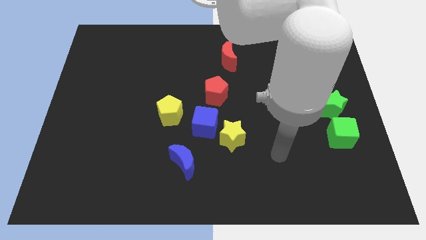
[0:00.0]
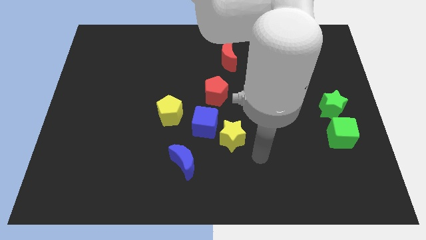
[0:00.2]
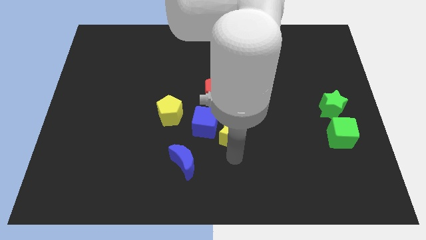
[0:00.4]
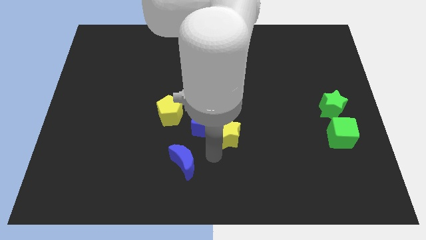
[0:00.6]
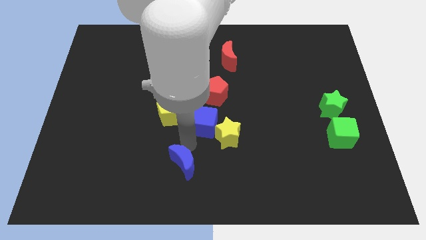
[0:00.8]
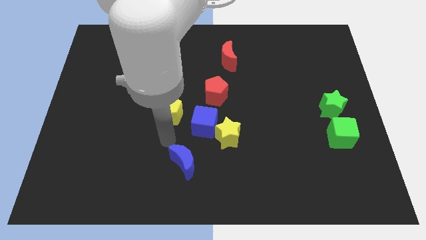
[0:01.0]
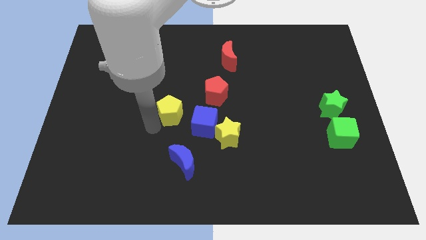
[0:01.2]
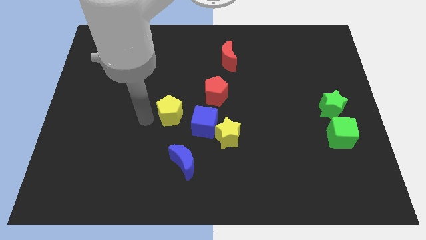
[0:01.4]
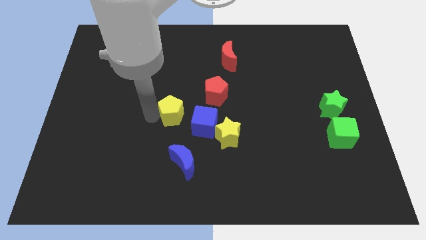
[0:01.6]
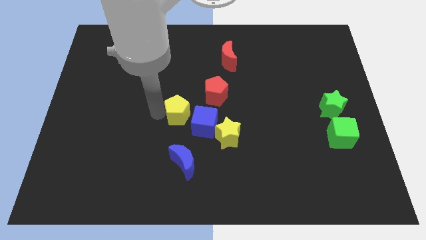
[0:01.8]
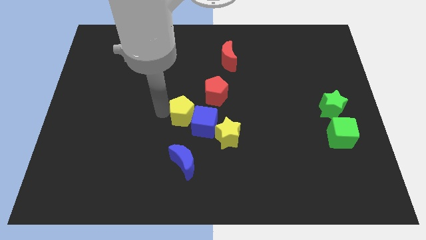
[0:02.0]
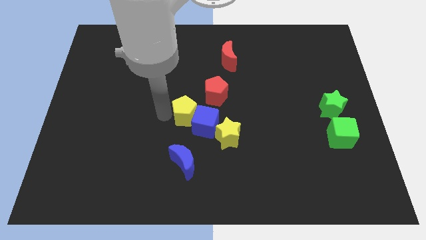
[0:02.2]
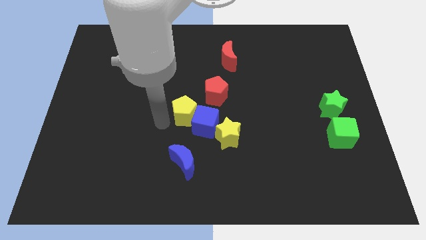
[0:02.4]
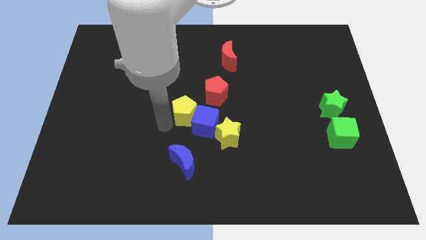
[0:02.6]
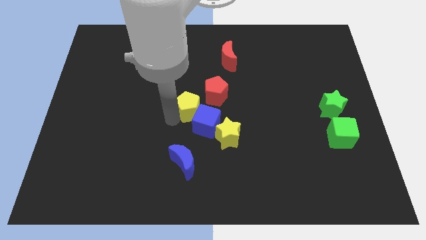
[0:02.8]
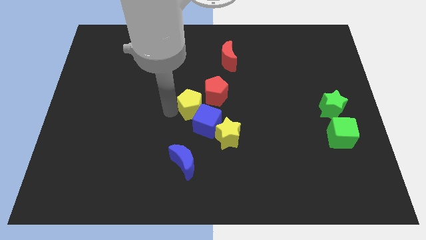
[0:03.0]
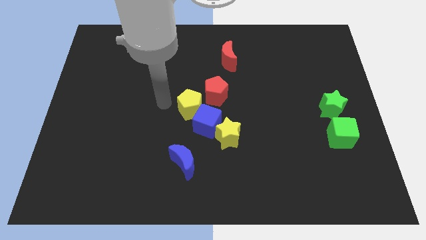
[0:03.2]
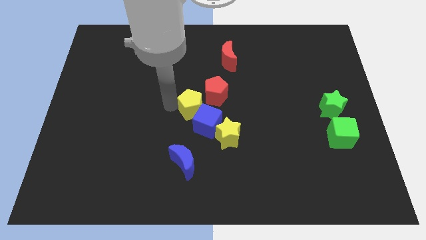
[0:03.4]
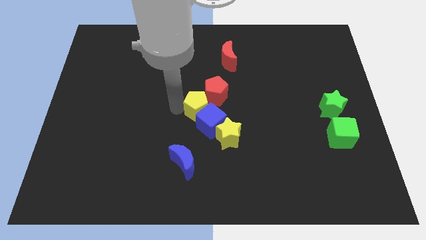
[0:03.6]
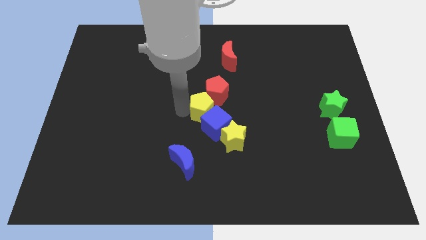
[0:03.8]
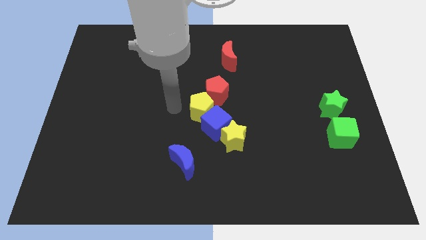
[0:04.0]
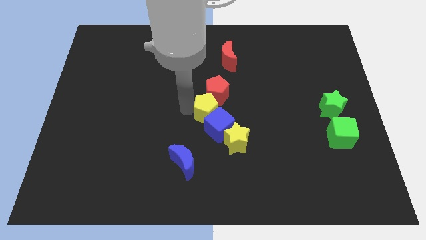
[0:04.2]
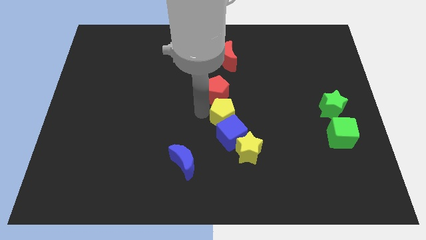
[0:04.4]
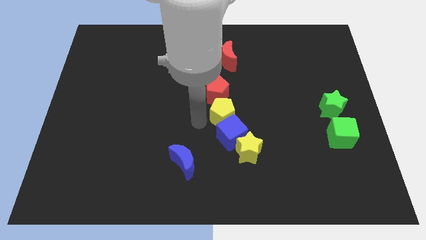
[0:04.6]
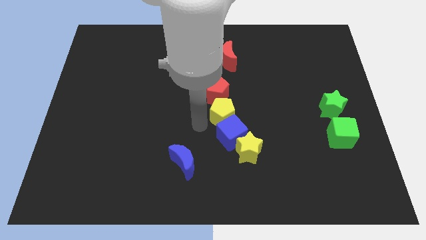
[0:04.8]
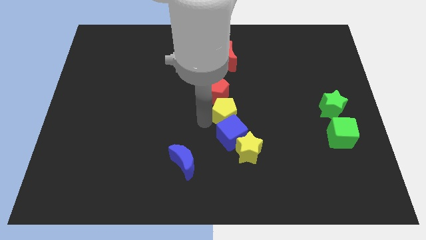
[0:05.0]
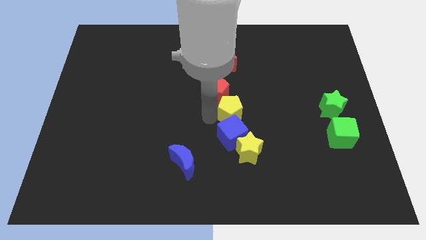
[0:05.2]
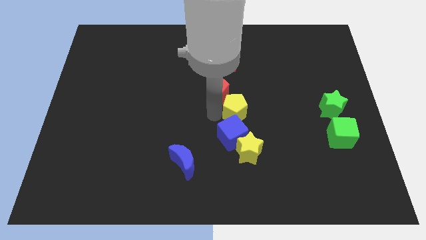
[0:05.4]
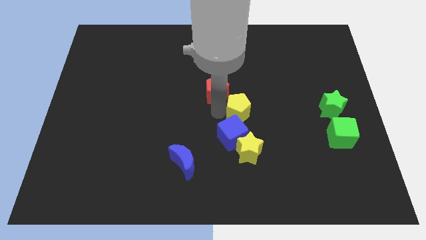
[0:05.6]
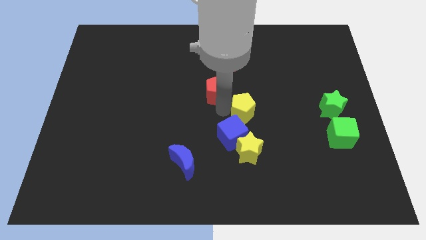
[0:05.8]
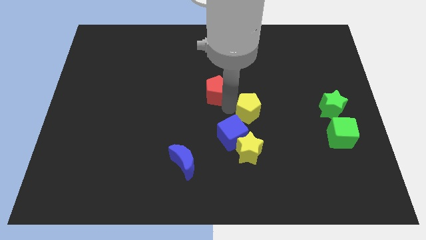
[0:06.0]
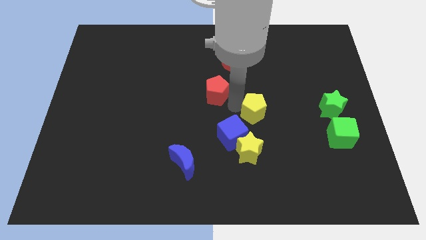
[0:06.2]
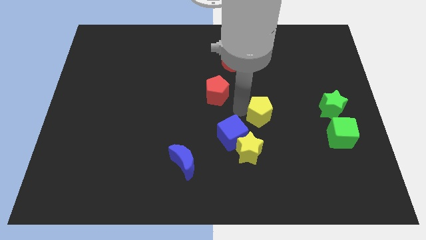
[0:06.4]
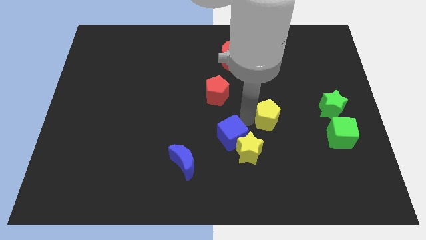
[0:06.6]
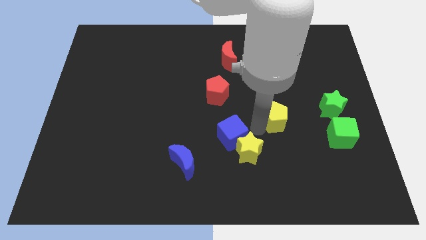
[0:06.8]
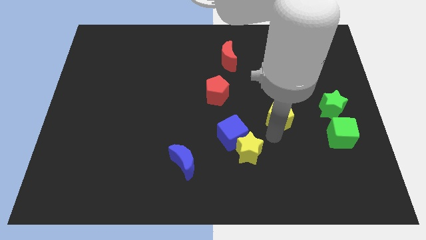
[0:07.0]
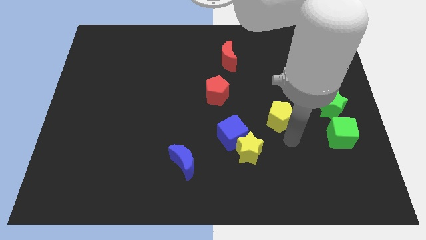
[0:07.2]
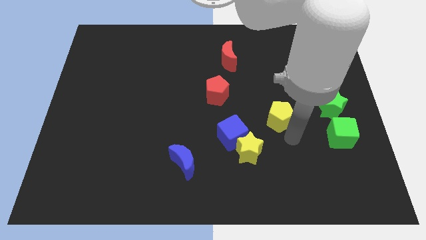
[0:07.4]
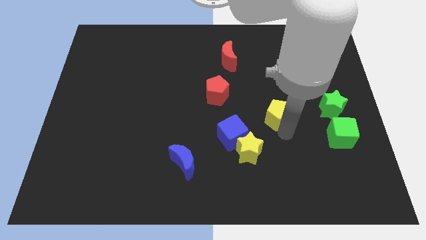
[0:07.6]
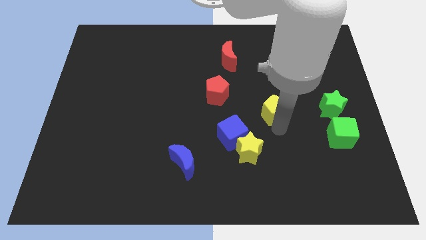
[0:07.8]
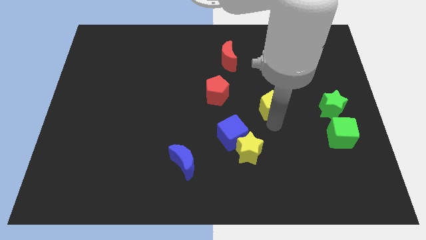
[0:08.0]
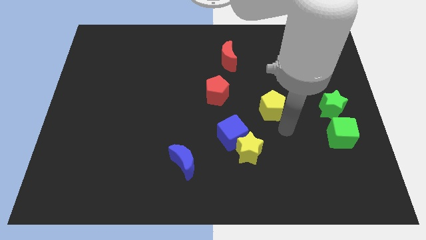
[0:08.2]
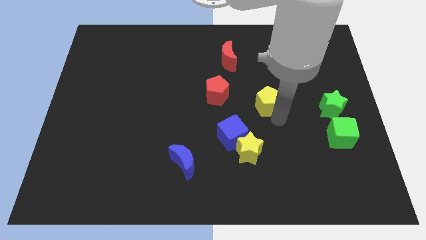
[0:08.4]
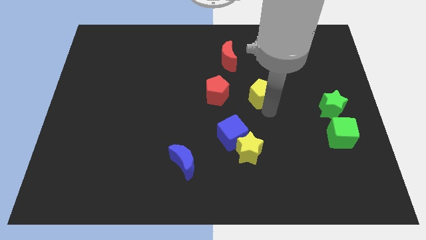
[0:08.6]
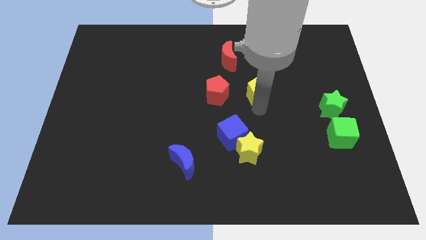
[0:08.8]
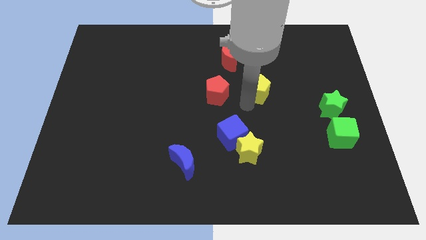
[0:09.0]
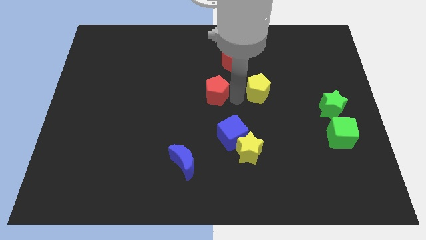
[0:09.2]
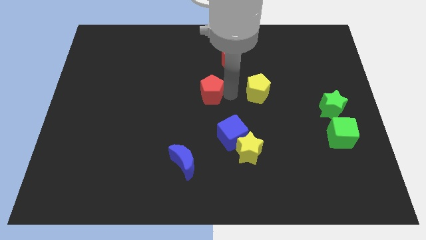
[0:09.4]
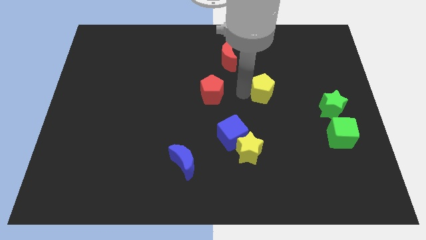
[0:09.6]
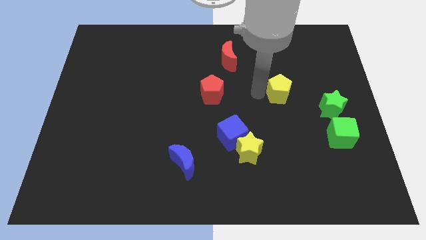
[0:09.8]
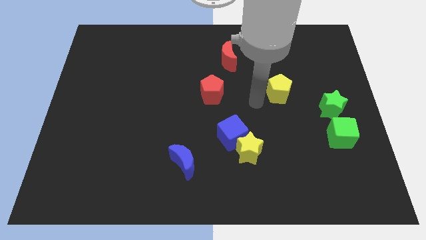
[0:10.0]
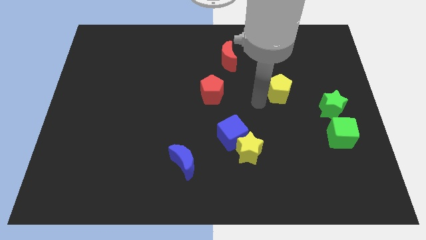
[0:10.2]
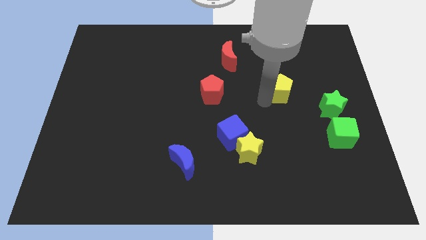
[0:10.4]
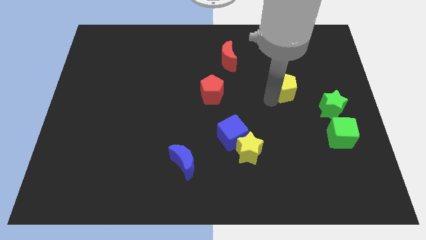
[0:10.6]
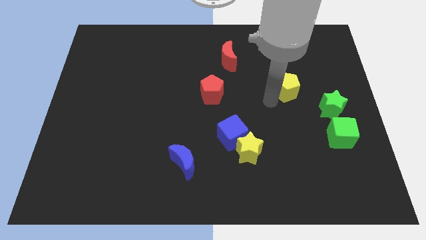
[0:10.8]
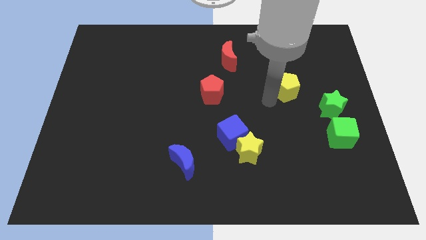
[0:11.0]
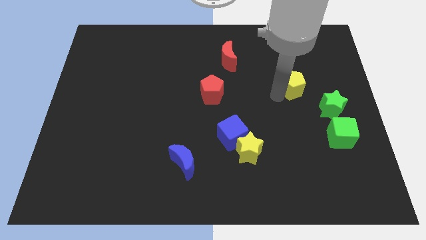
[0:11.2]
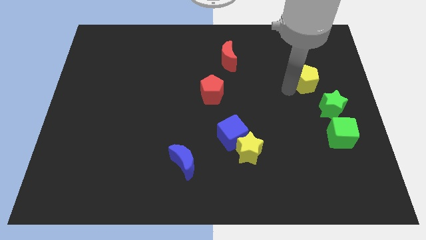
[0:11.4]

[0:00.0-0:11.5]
move the yellow pentagon to the top of the green star

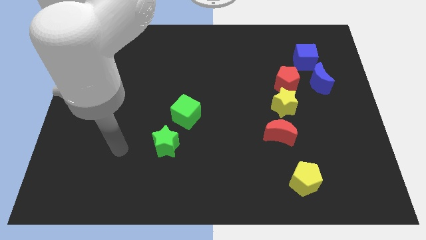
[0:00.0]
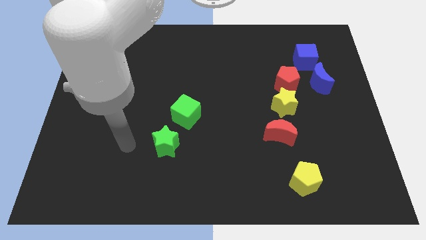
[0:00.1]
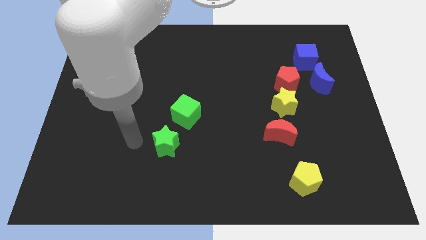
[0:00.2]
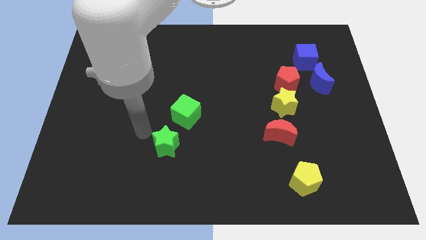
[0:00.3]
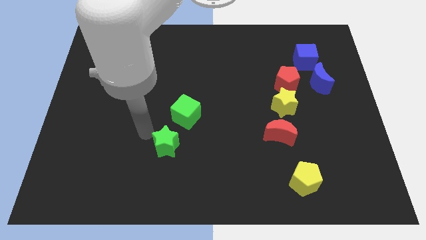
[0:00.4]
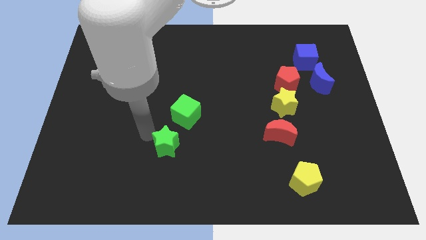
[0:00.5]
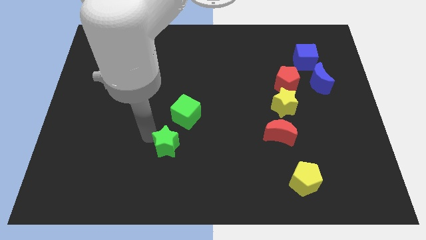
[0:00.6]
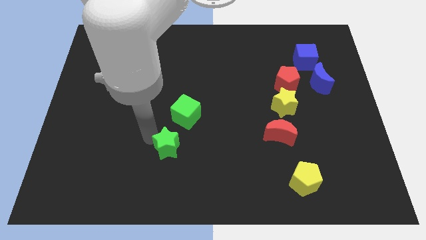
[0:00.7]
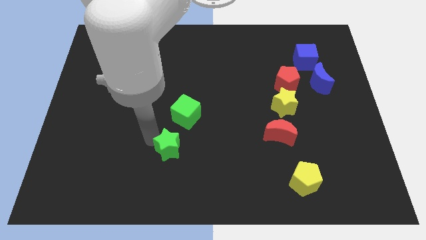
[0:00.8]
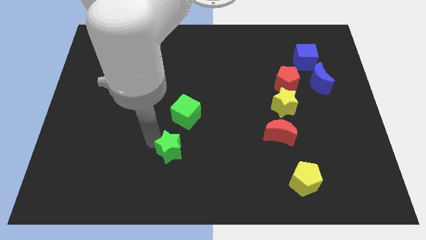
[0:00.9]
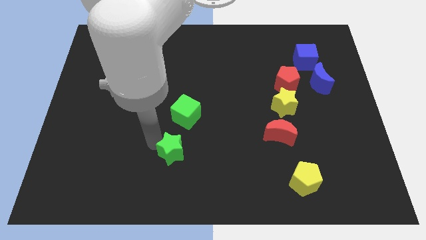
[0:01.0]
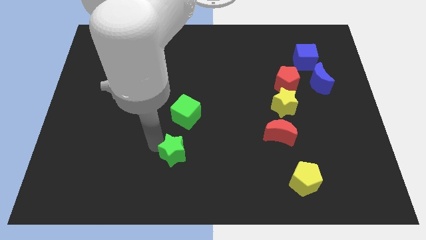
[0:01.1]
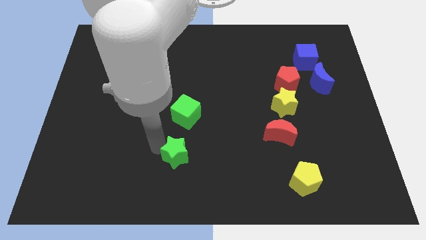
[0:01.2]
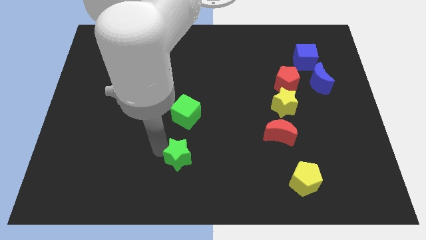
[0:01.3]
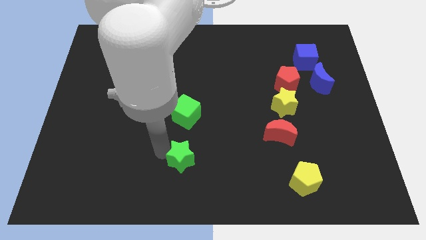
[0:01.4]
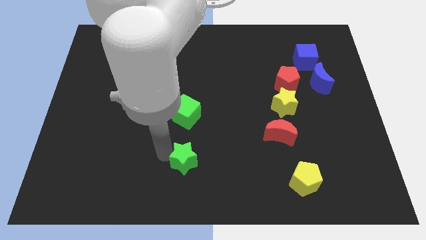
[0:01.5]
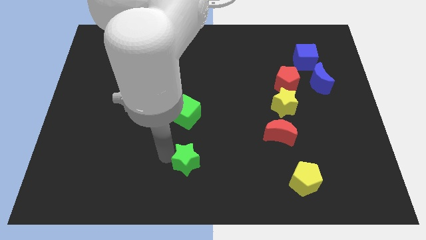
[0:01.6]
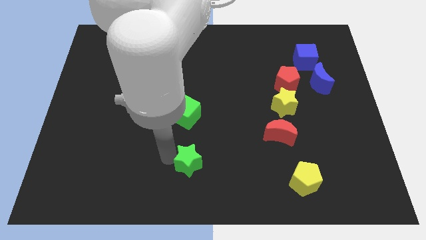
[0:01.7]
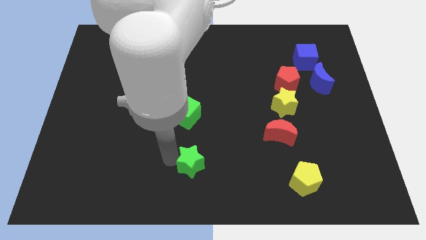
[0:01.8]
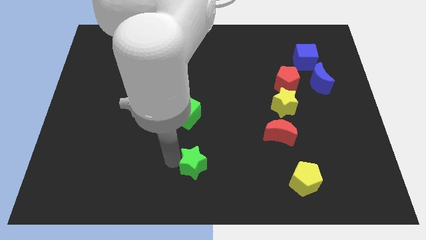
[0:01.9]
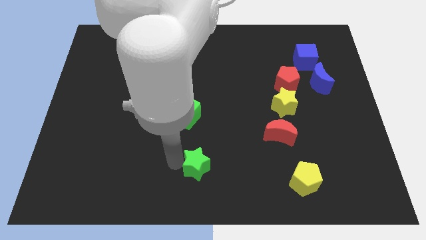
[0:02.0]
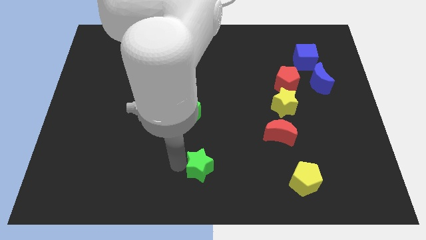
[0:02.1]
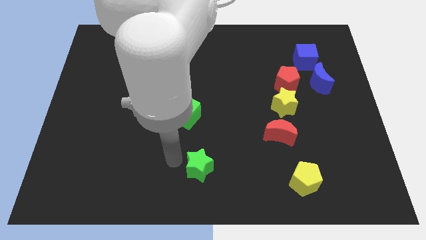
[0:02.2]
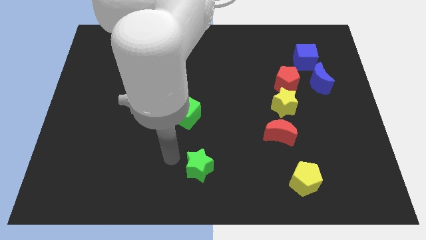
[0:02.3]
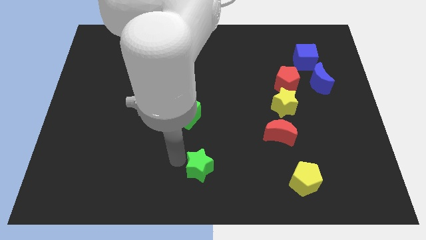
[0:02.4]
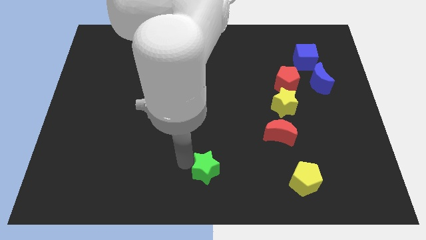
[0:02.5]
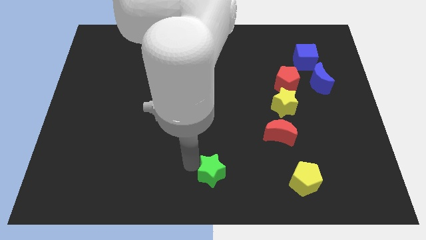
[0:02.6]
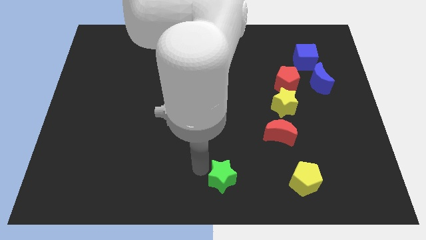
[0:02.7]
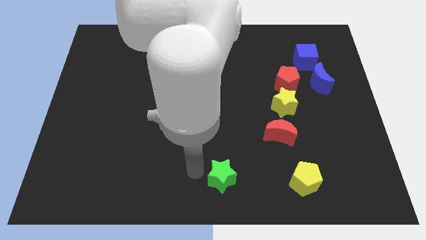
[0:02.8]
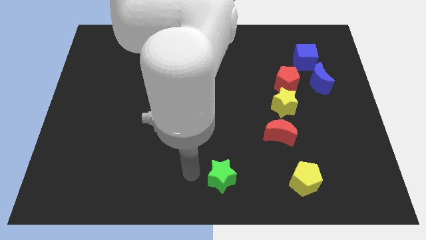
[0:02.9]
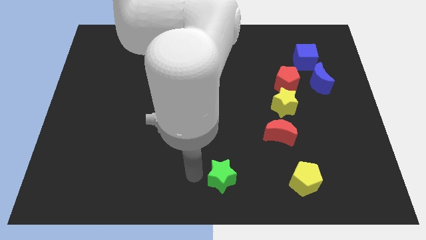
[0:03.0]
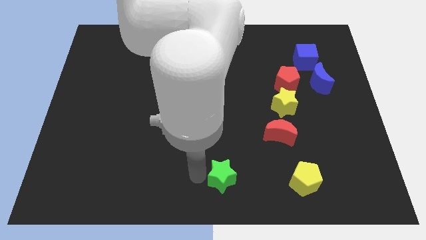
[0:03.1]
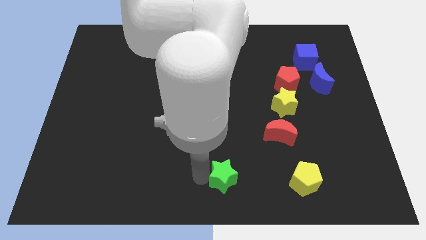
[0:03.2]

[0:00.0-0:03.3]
put the green star to the left of the yellow pentagon
